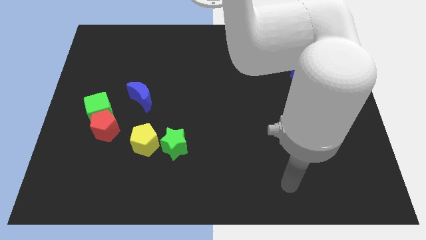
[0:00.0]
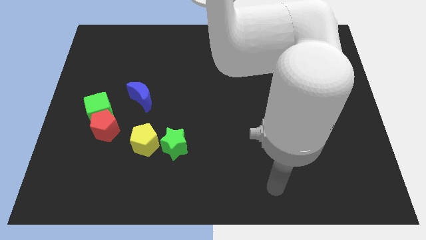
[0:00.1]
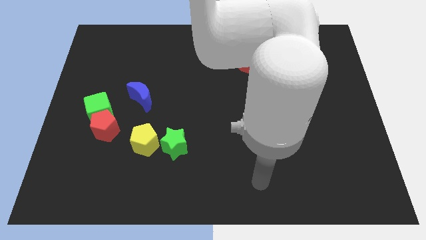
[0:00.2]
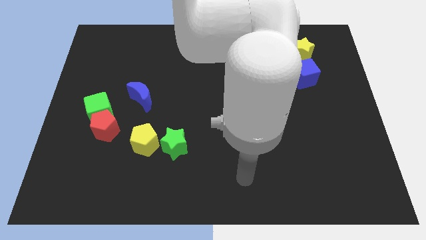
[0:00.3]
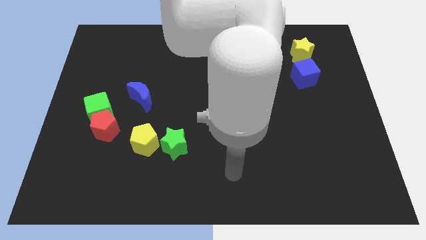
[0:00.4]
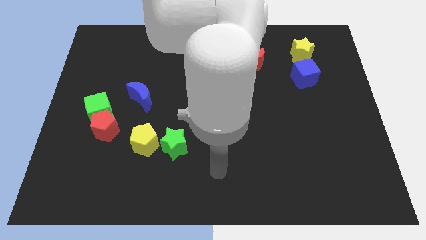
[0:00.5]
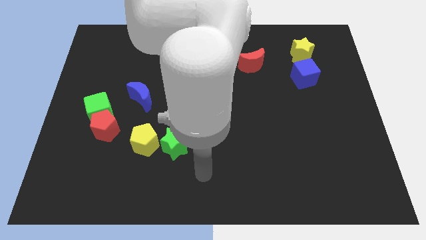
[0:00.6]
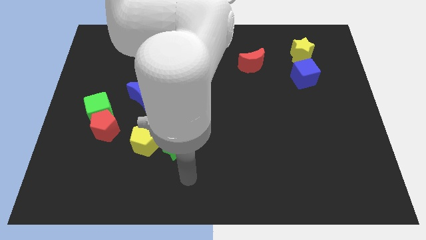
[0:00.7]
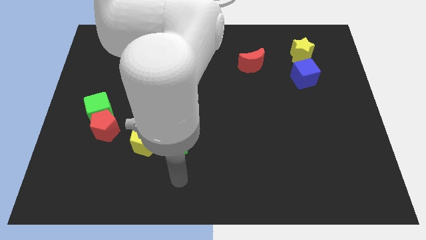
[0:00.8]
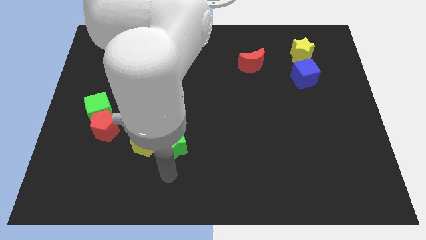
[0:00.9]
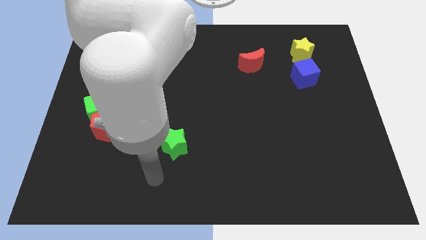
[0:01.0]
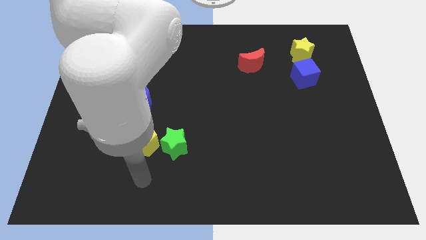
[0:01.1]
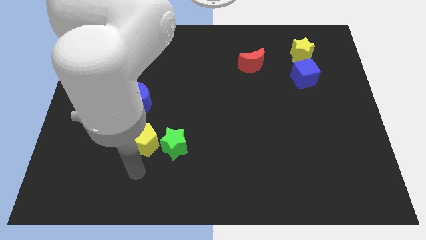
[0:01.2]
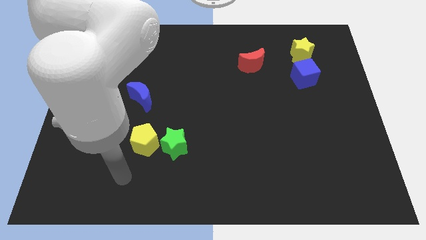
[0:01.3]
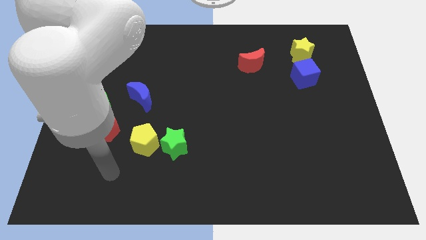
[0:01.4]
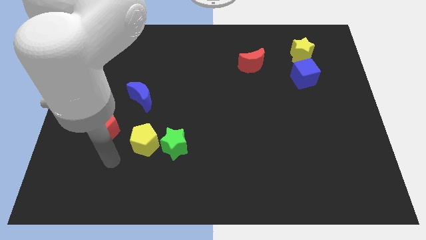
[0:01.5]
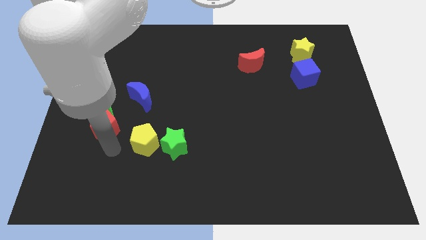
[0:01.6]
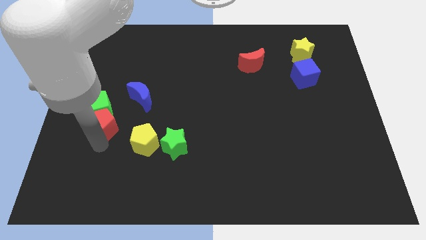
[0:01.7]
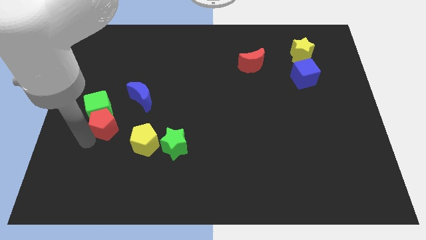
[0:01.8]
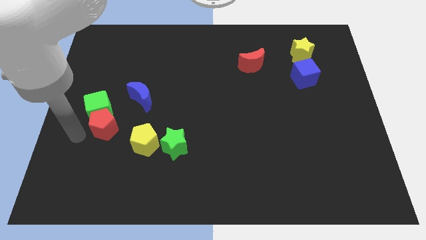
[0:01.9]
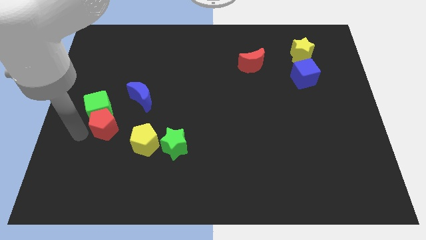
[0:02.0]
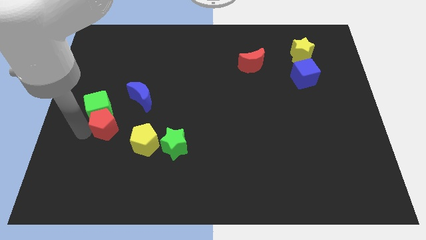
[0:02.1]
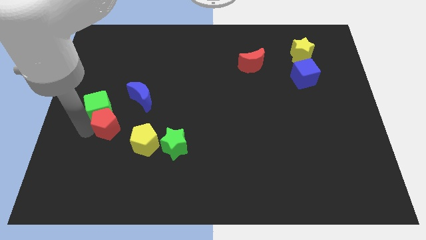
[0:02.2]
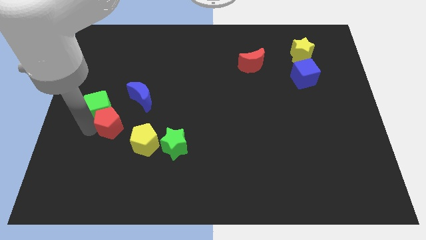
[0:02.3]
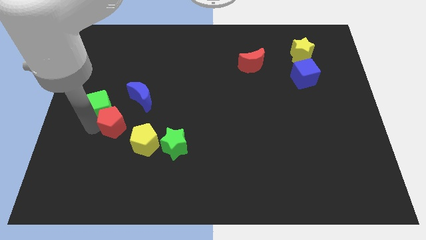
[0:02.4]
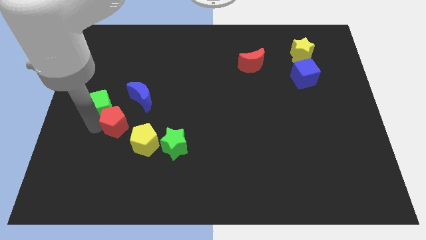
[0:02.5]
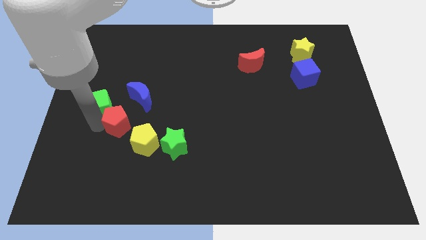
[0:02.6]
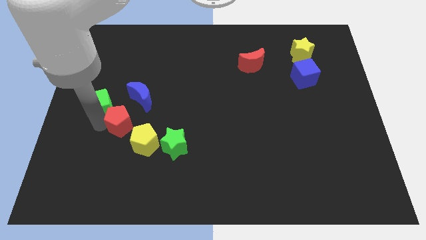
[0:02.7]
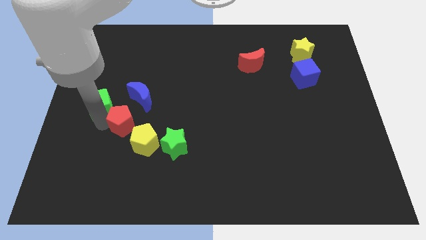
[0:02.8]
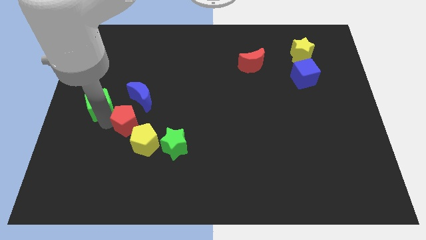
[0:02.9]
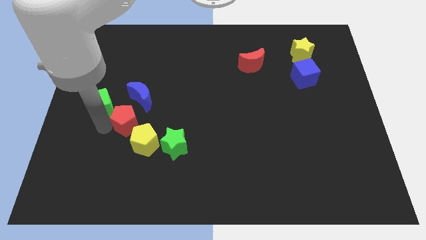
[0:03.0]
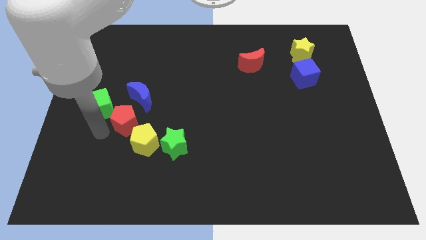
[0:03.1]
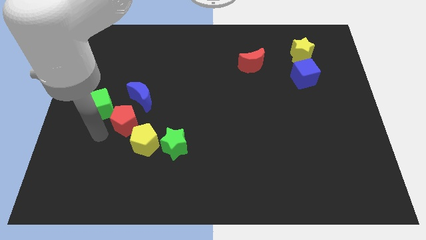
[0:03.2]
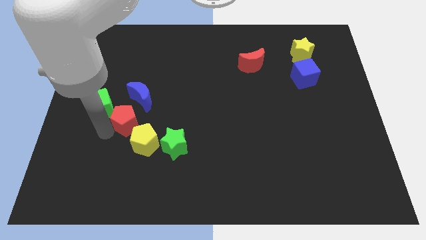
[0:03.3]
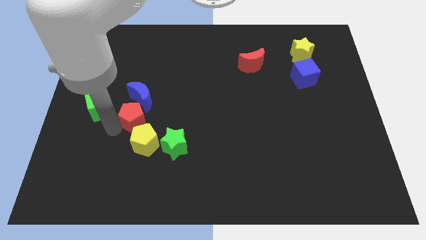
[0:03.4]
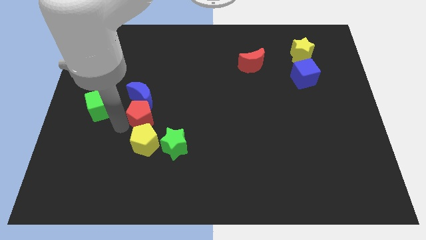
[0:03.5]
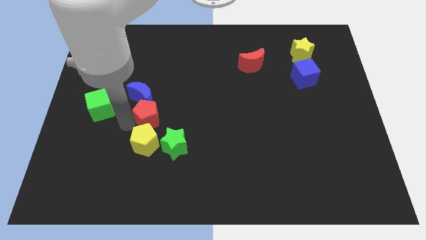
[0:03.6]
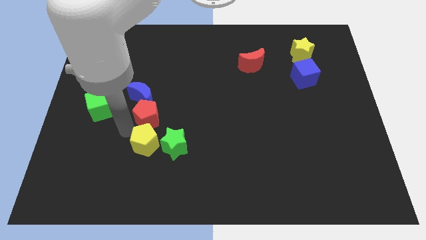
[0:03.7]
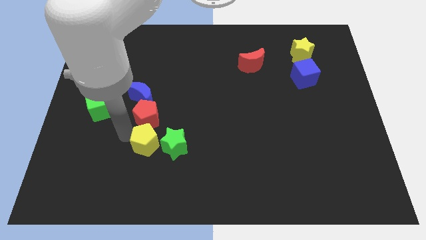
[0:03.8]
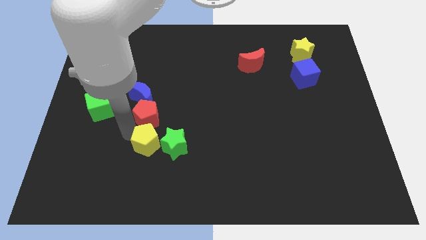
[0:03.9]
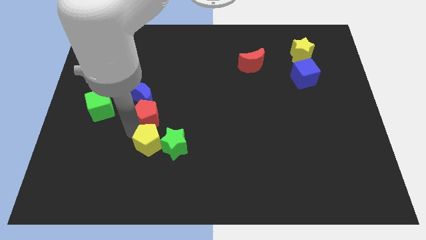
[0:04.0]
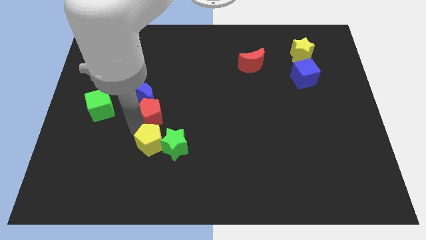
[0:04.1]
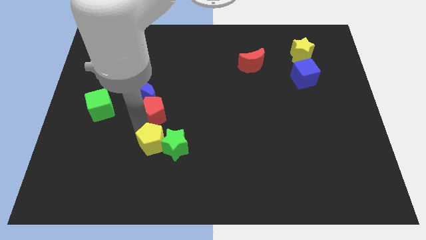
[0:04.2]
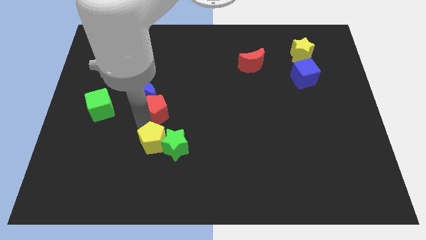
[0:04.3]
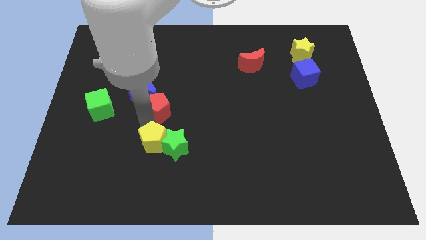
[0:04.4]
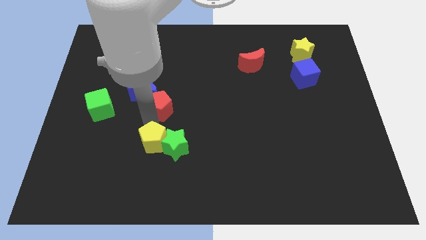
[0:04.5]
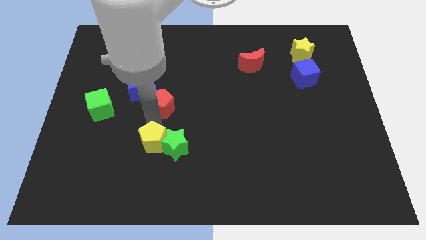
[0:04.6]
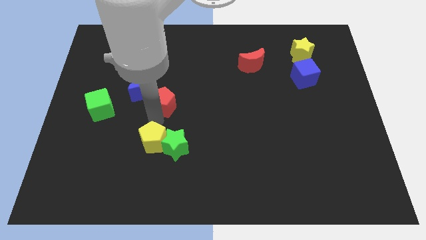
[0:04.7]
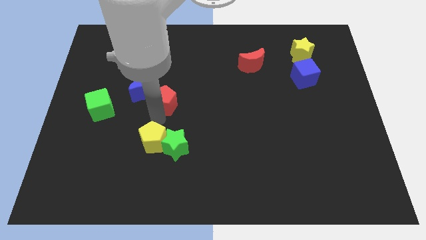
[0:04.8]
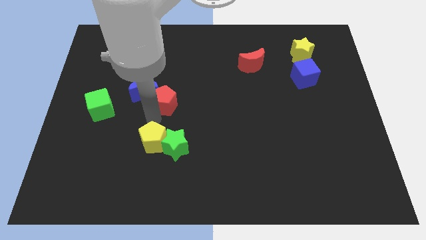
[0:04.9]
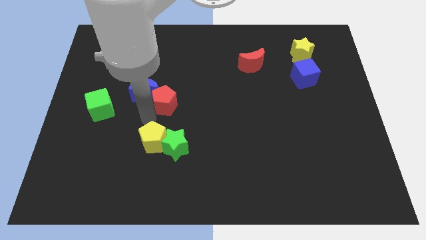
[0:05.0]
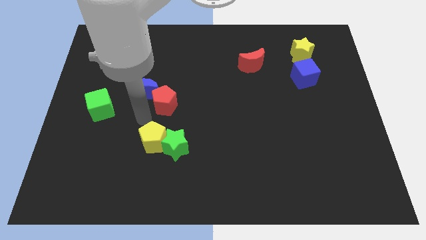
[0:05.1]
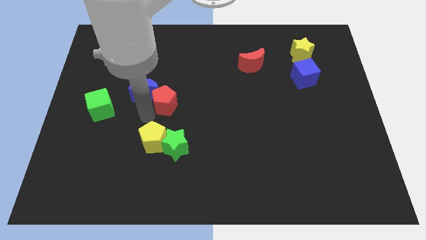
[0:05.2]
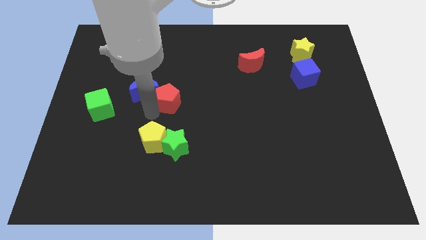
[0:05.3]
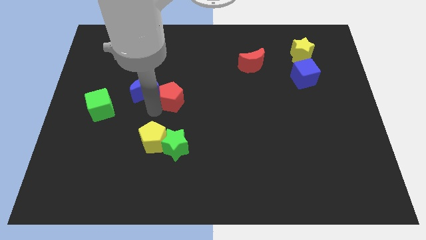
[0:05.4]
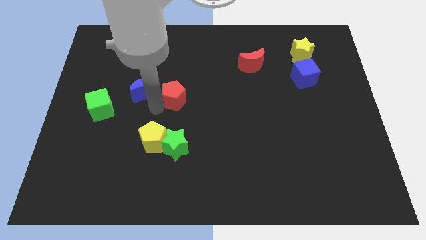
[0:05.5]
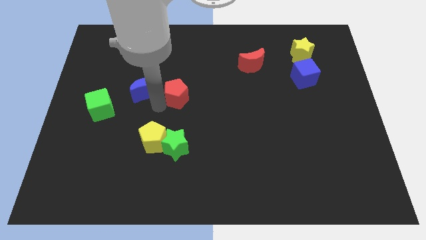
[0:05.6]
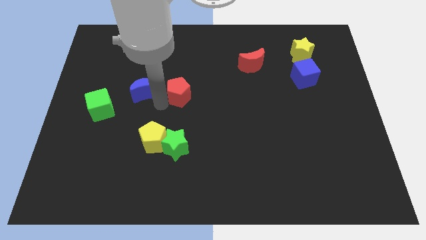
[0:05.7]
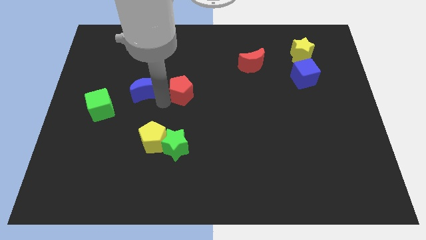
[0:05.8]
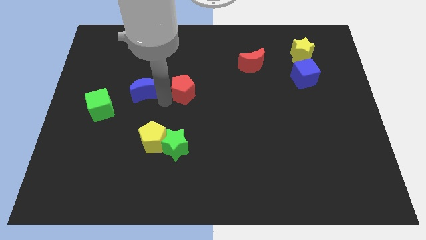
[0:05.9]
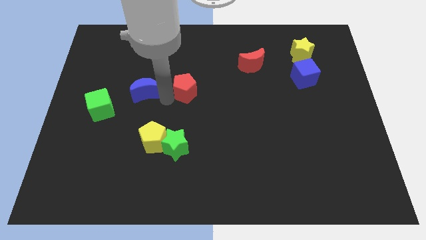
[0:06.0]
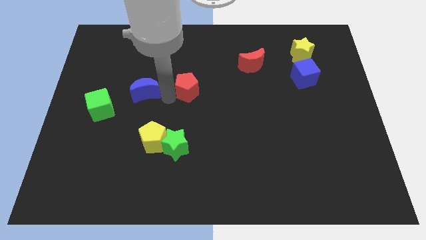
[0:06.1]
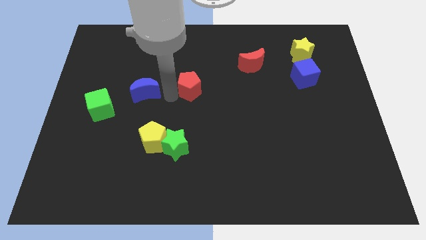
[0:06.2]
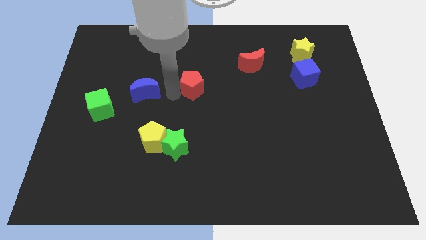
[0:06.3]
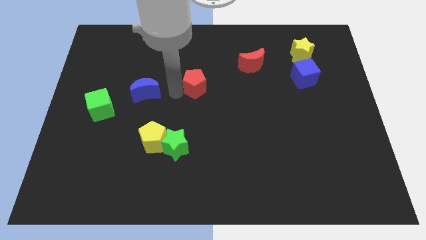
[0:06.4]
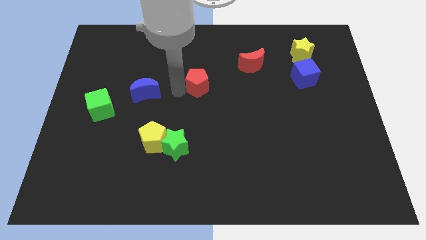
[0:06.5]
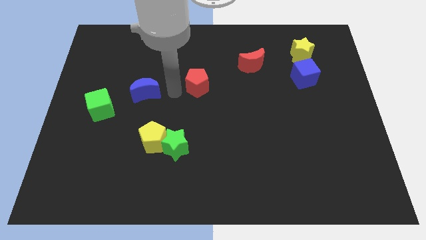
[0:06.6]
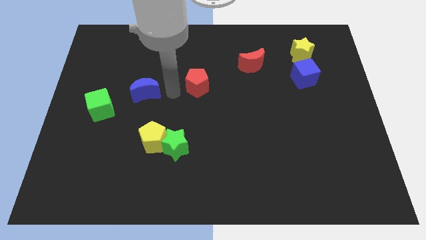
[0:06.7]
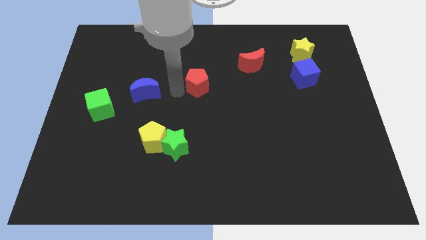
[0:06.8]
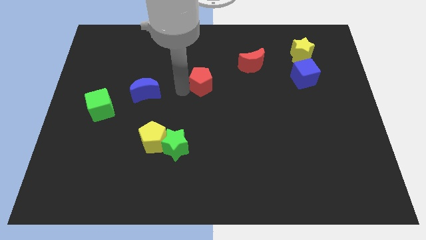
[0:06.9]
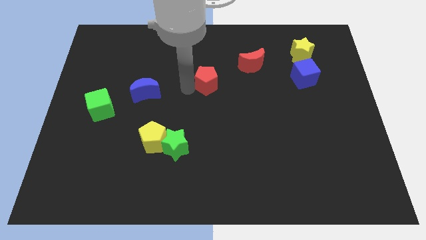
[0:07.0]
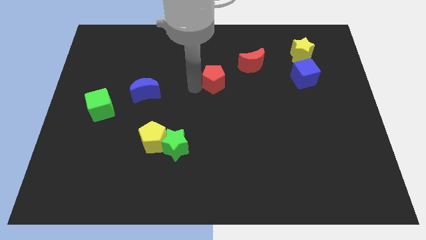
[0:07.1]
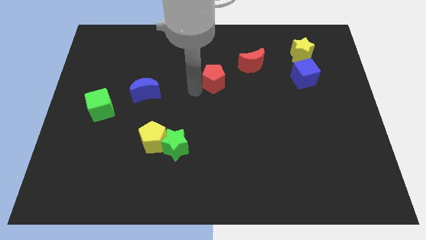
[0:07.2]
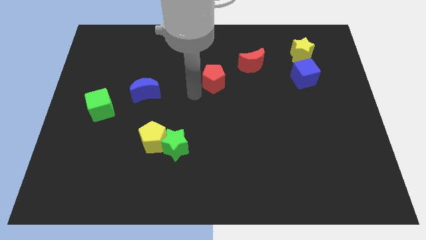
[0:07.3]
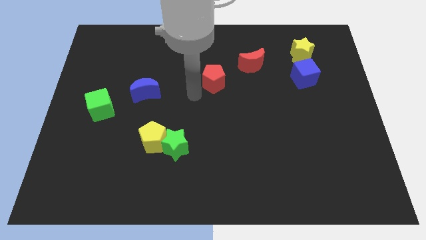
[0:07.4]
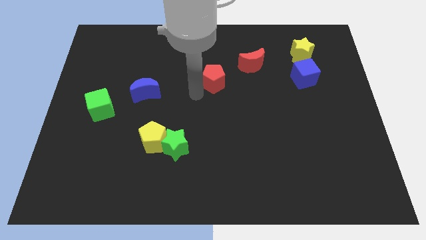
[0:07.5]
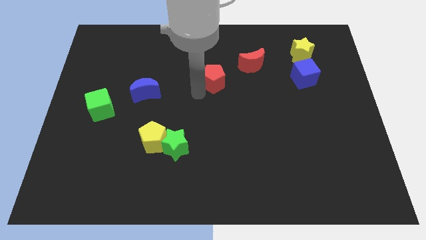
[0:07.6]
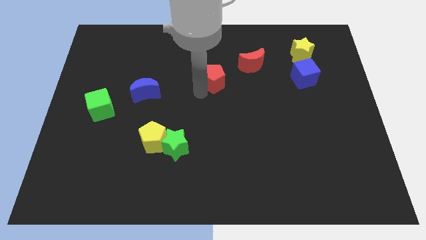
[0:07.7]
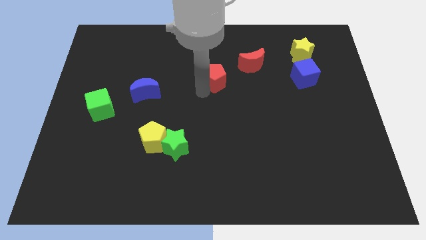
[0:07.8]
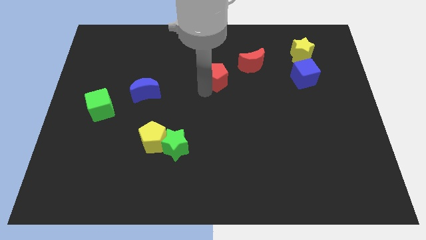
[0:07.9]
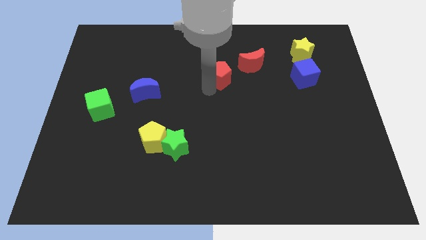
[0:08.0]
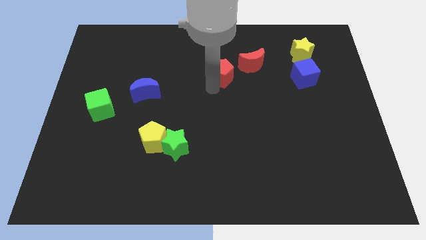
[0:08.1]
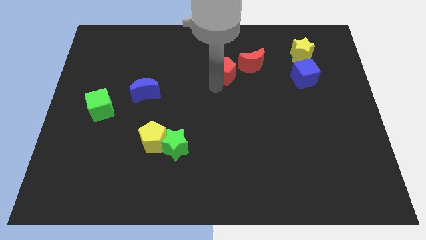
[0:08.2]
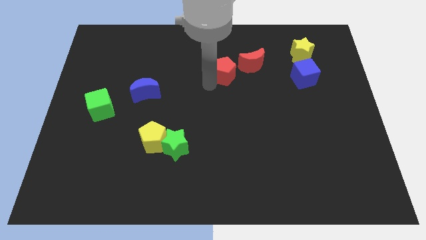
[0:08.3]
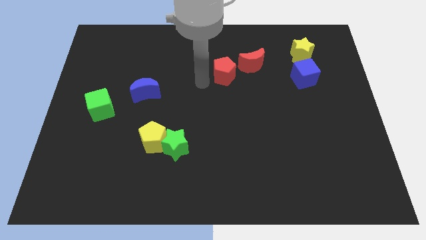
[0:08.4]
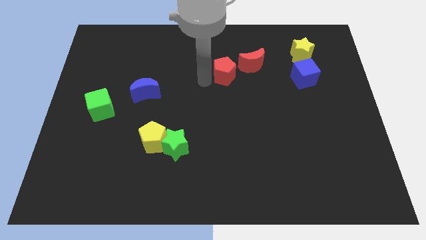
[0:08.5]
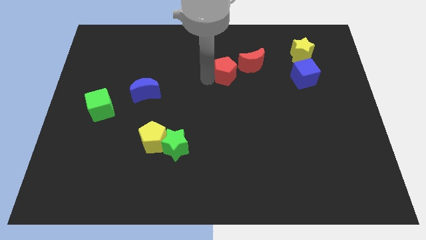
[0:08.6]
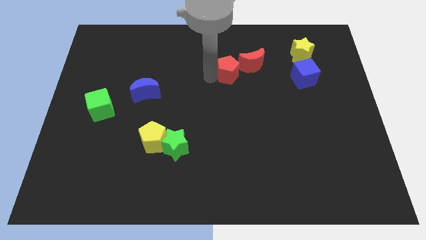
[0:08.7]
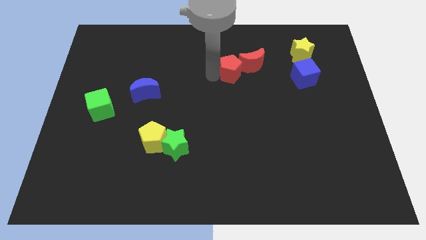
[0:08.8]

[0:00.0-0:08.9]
put the red pentagon next to the red moon
